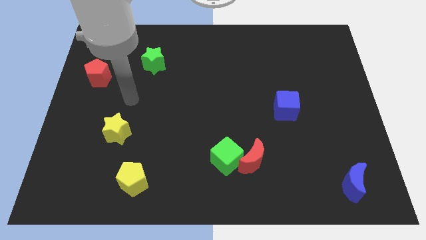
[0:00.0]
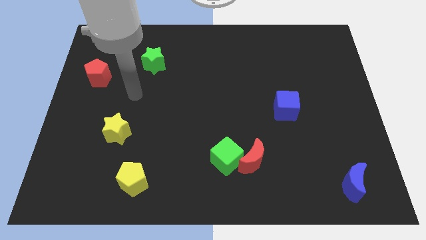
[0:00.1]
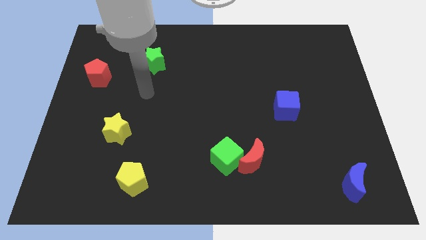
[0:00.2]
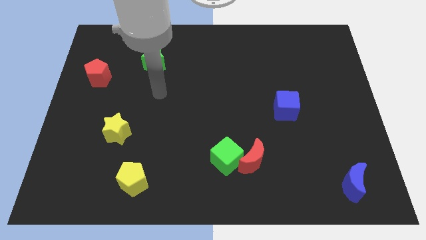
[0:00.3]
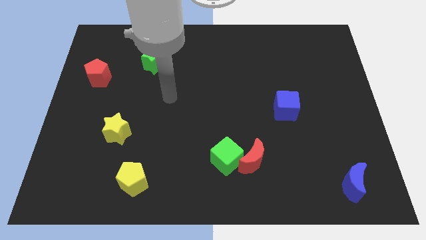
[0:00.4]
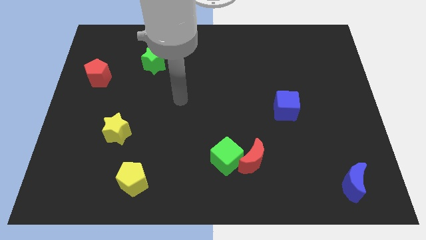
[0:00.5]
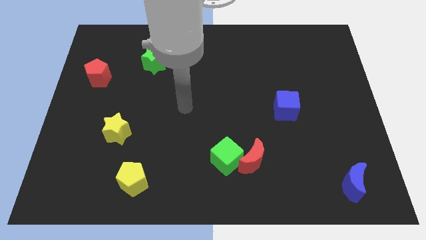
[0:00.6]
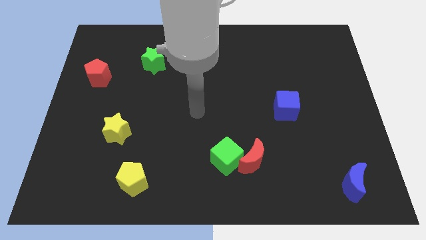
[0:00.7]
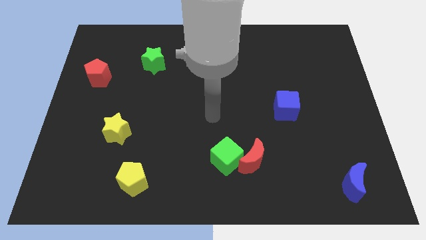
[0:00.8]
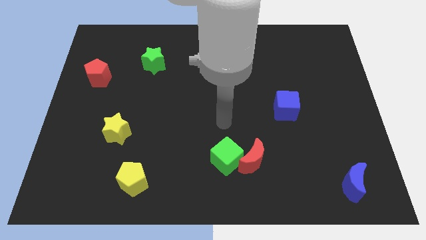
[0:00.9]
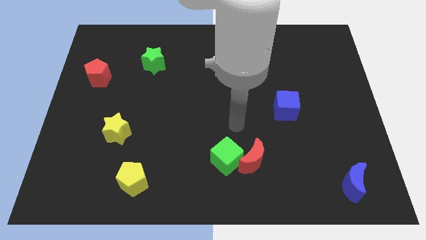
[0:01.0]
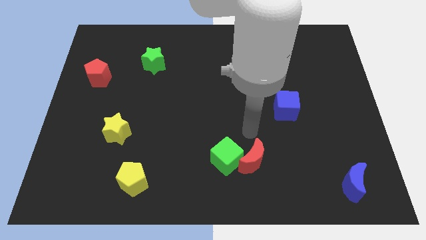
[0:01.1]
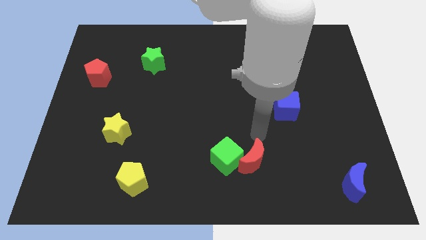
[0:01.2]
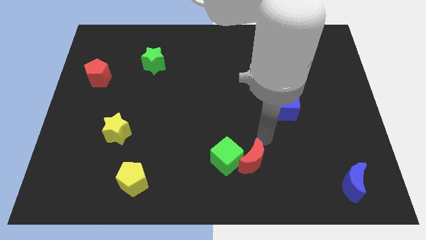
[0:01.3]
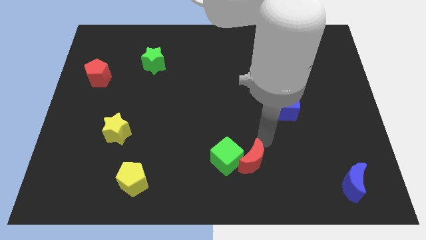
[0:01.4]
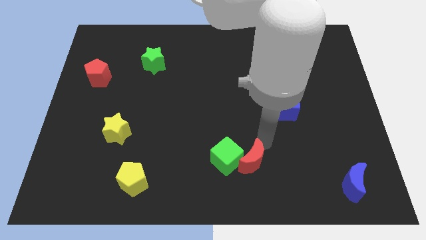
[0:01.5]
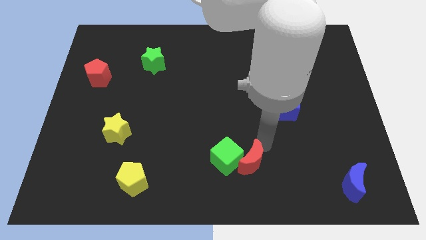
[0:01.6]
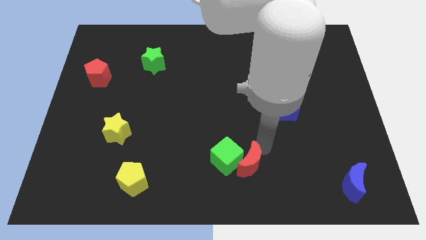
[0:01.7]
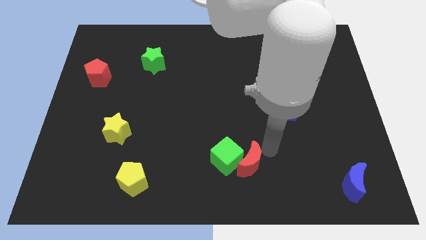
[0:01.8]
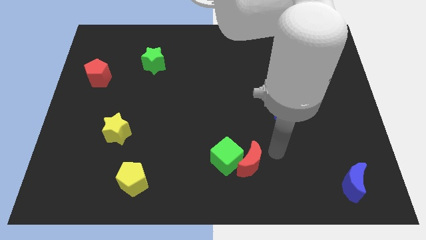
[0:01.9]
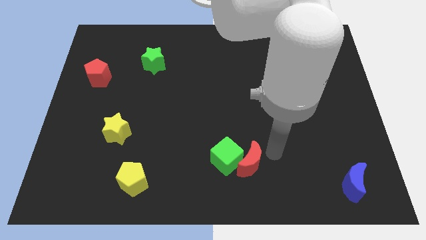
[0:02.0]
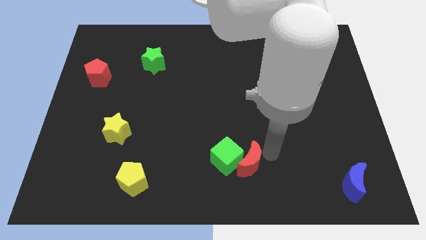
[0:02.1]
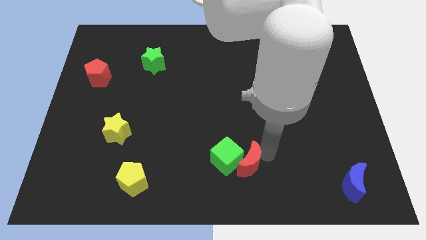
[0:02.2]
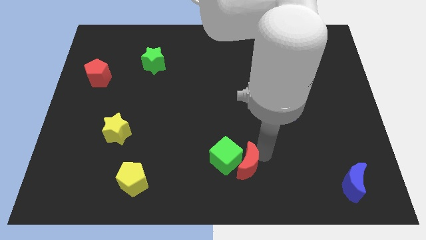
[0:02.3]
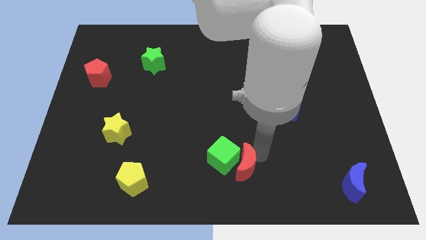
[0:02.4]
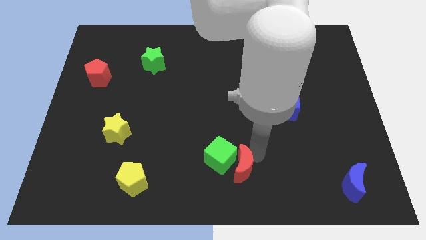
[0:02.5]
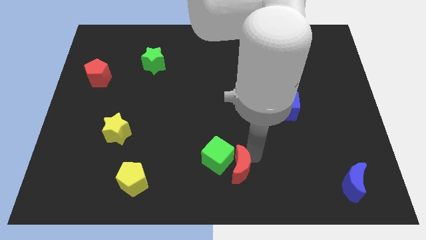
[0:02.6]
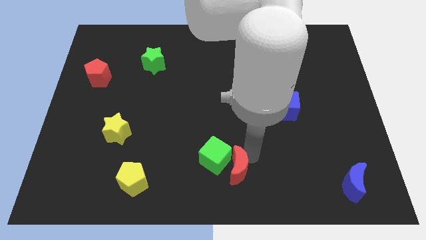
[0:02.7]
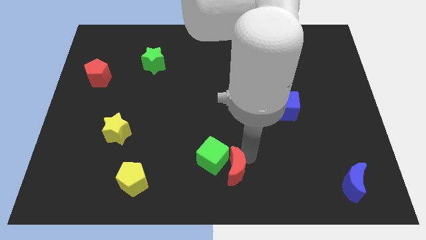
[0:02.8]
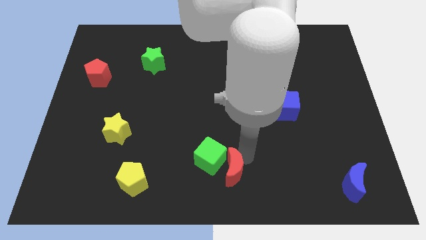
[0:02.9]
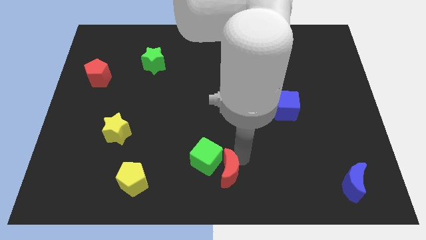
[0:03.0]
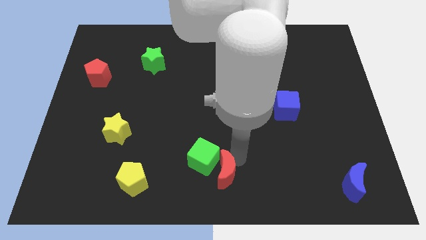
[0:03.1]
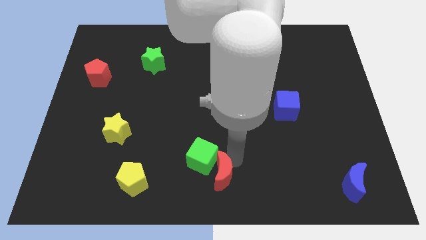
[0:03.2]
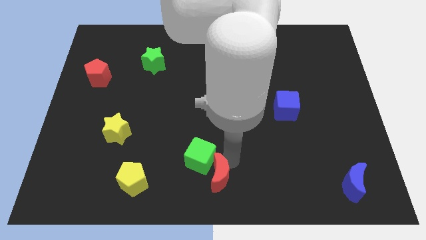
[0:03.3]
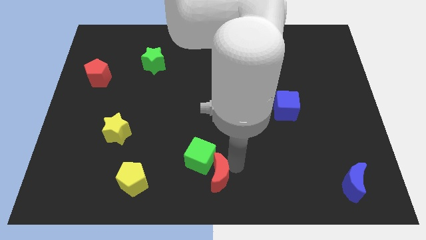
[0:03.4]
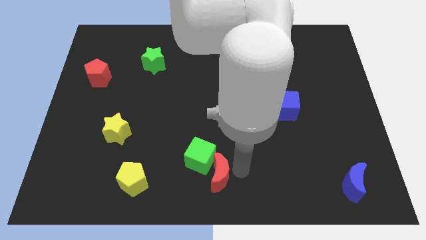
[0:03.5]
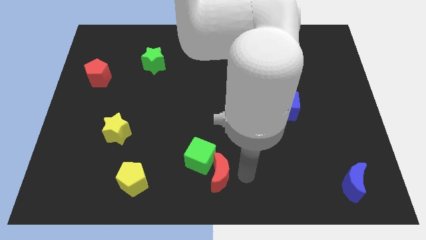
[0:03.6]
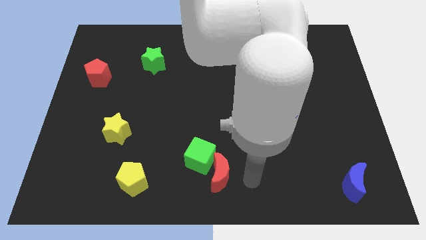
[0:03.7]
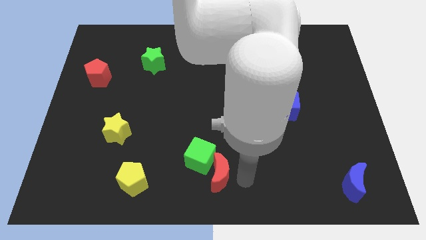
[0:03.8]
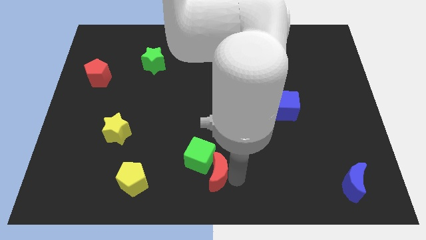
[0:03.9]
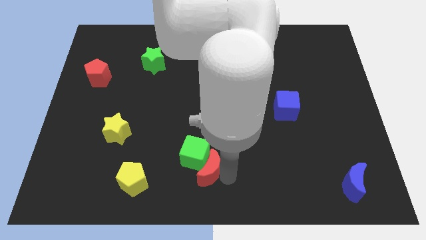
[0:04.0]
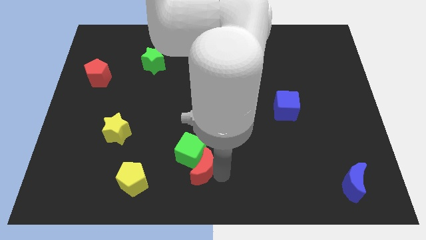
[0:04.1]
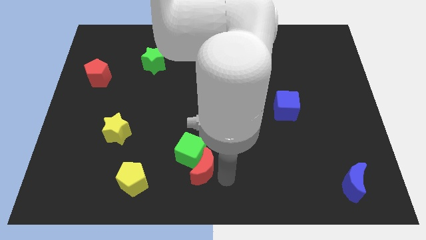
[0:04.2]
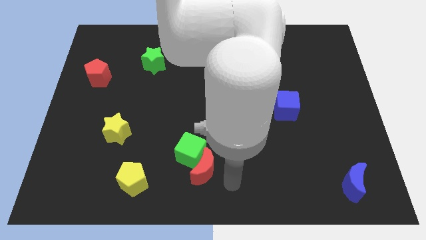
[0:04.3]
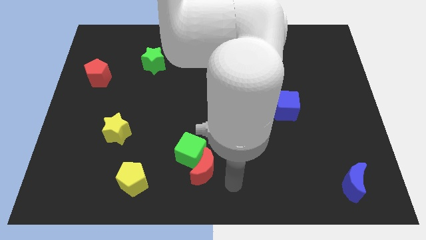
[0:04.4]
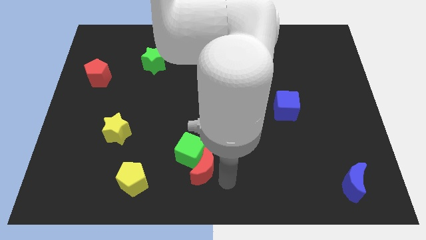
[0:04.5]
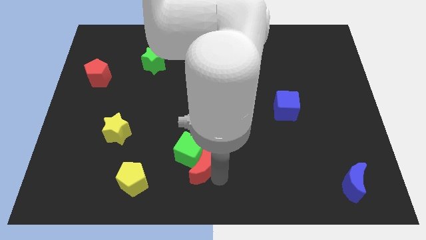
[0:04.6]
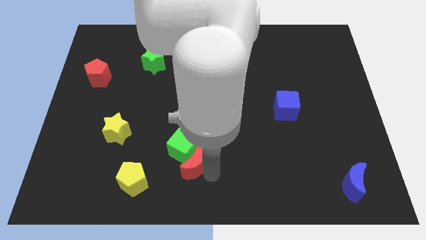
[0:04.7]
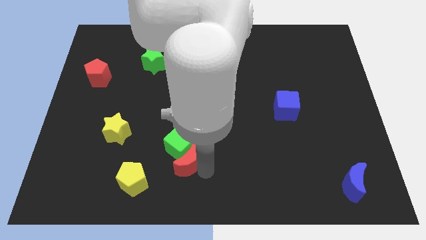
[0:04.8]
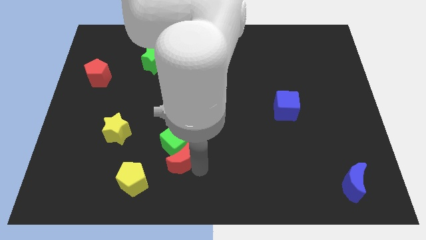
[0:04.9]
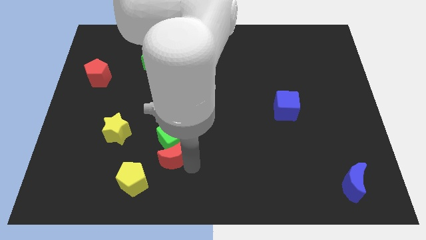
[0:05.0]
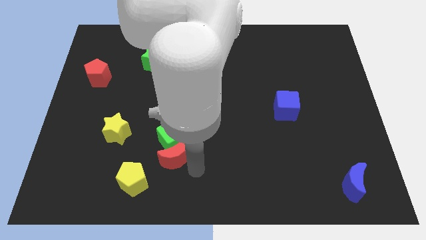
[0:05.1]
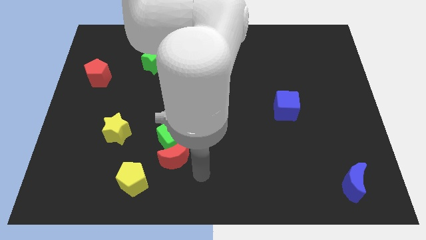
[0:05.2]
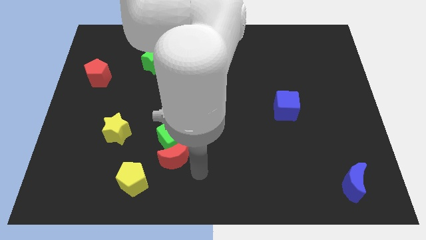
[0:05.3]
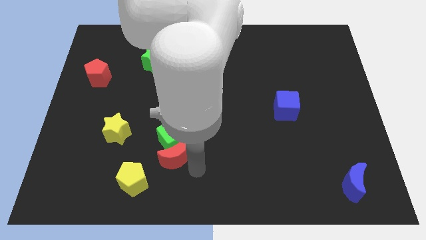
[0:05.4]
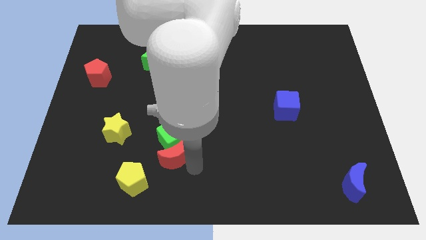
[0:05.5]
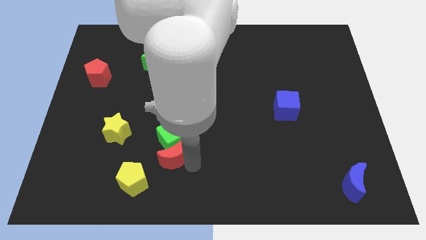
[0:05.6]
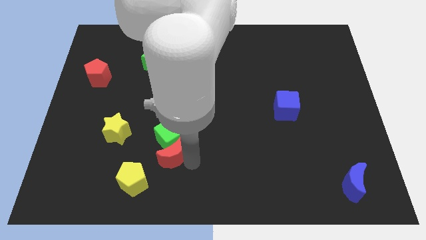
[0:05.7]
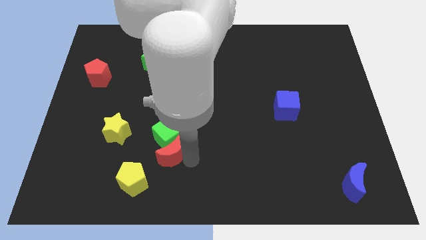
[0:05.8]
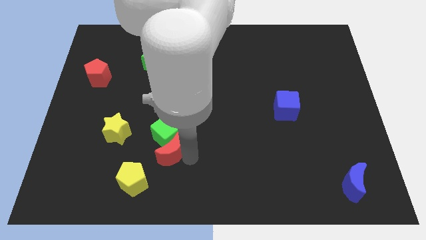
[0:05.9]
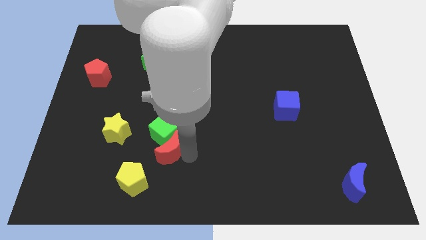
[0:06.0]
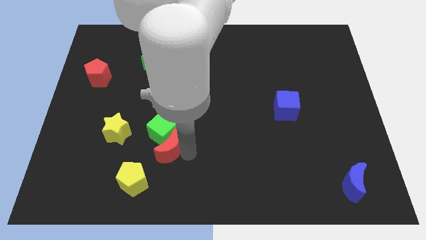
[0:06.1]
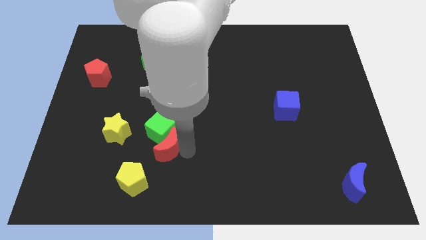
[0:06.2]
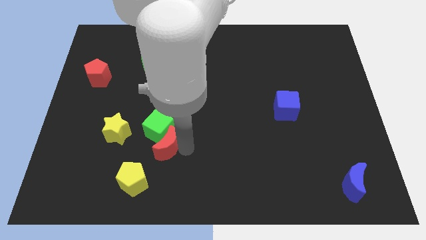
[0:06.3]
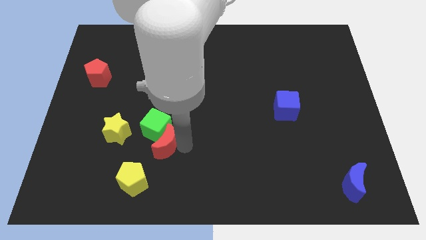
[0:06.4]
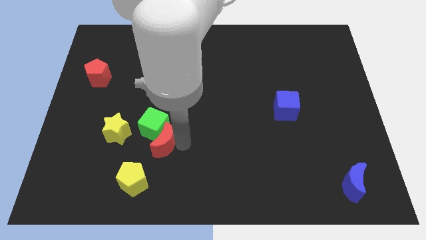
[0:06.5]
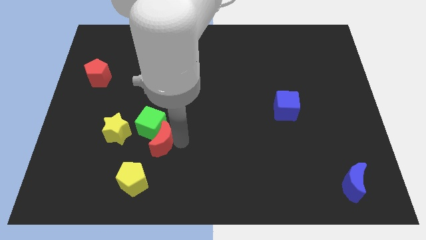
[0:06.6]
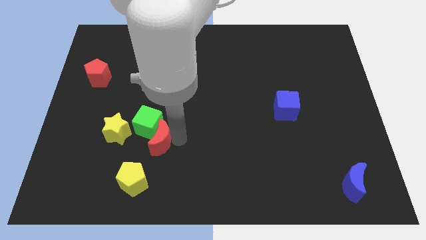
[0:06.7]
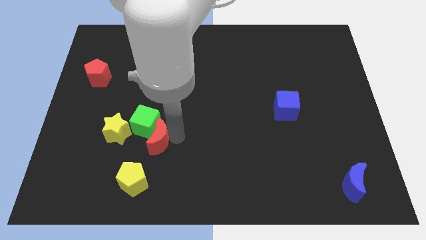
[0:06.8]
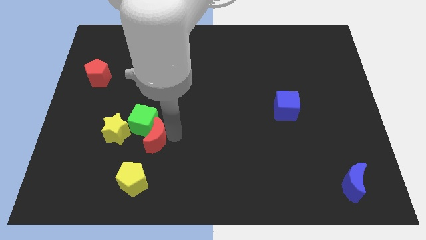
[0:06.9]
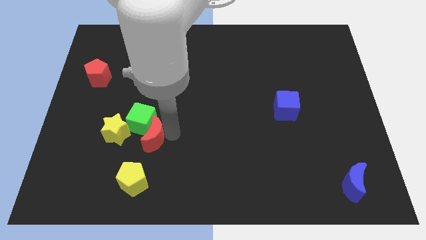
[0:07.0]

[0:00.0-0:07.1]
move the red moon to the left

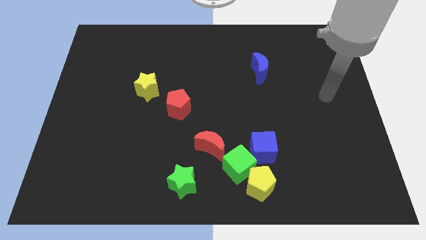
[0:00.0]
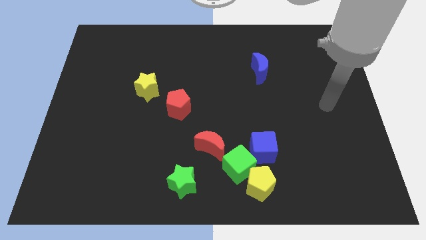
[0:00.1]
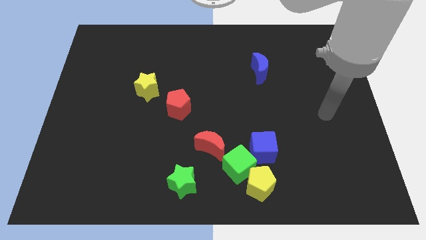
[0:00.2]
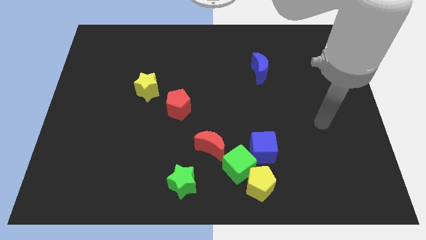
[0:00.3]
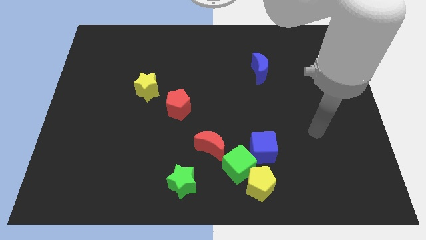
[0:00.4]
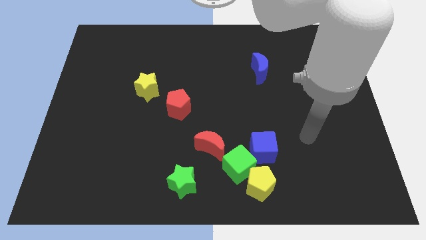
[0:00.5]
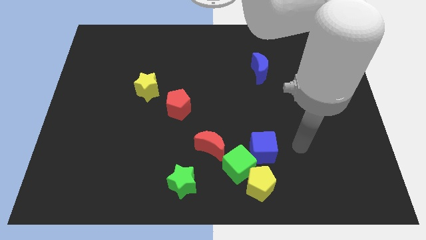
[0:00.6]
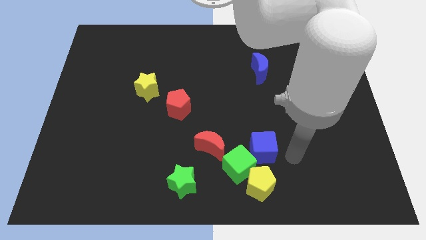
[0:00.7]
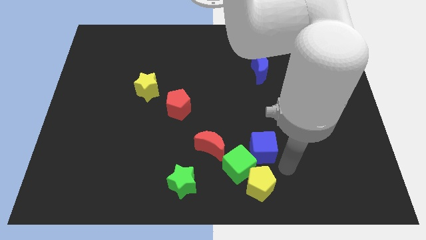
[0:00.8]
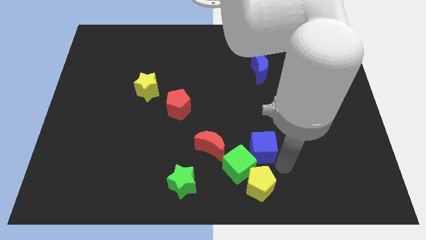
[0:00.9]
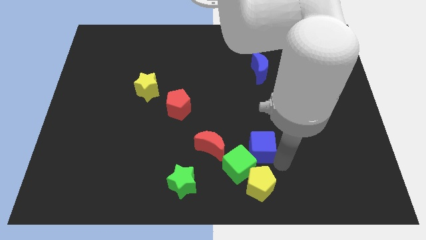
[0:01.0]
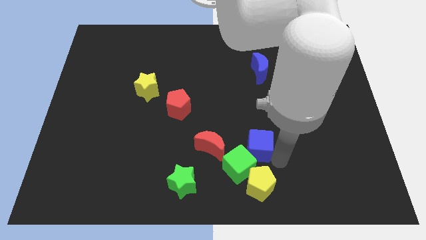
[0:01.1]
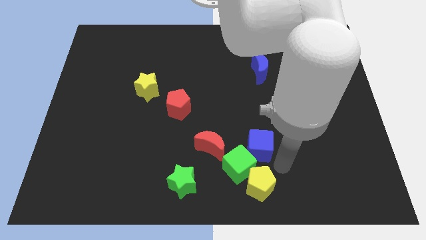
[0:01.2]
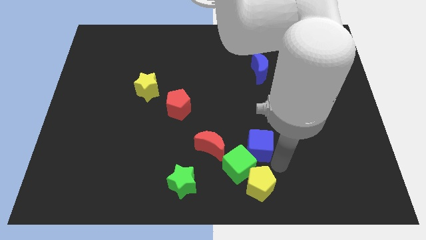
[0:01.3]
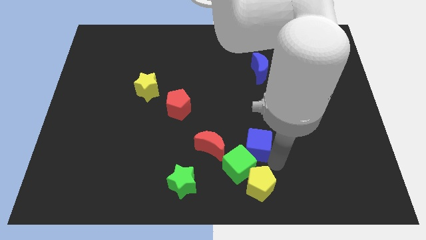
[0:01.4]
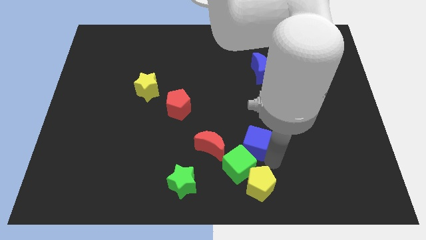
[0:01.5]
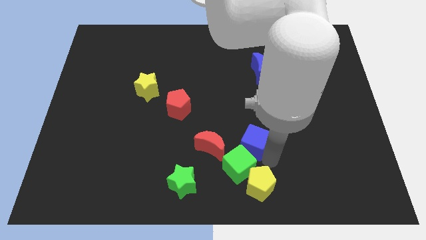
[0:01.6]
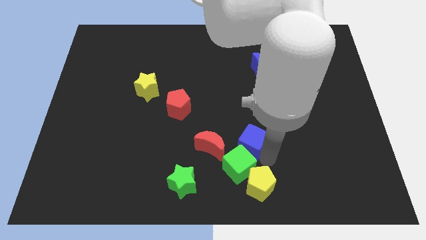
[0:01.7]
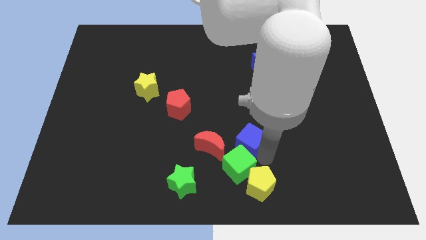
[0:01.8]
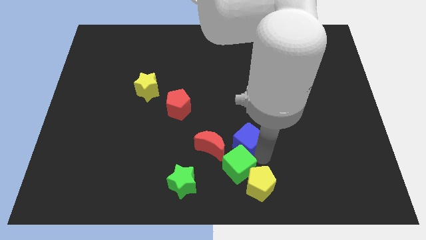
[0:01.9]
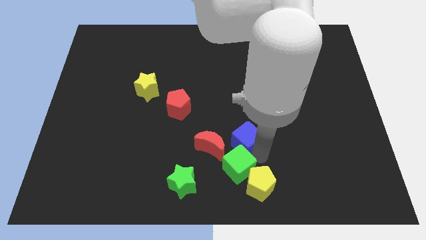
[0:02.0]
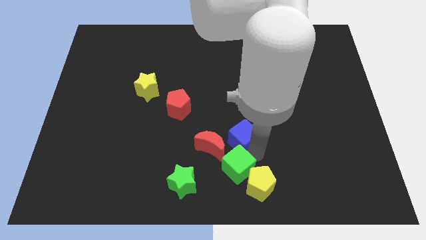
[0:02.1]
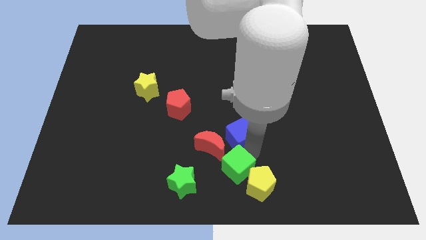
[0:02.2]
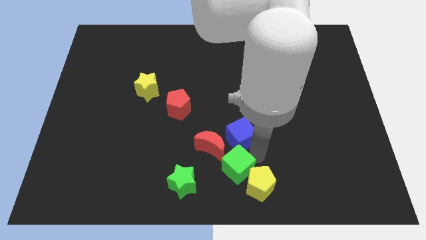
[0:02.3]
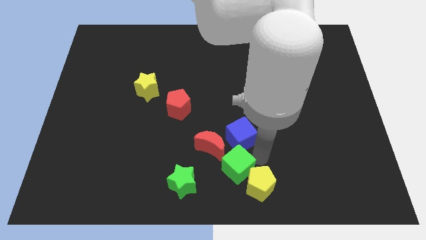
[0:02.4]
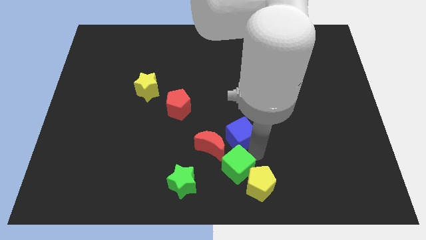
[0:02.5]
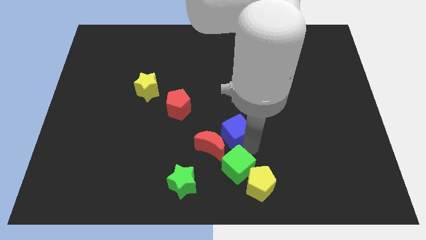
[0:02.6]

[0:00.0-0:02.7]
push the blue cube slightly upwards and to the left diagonally
